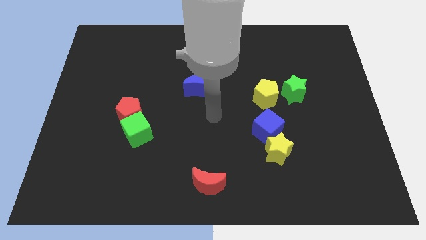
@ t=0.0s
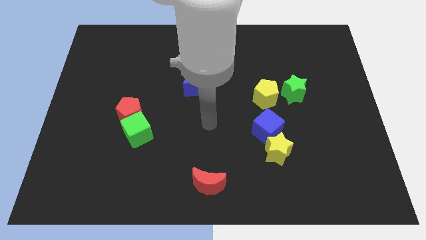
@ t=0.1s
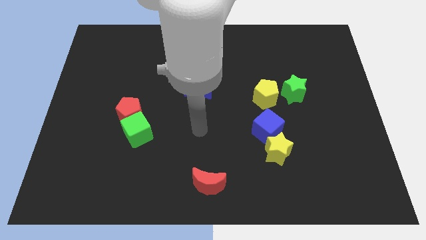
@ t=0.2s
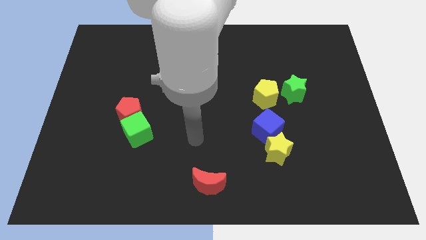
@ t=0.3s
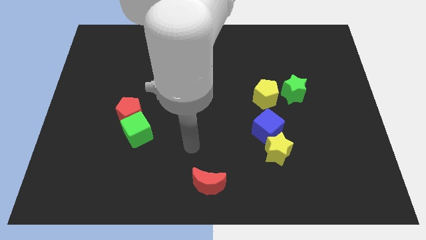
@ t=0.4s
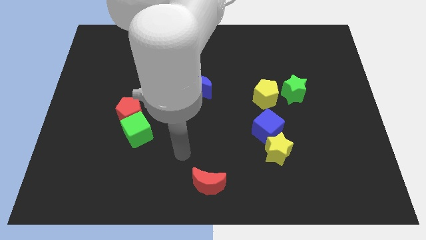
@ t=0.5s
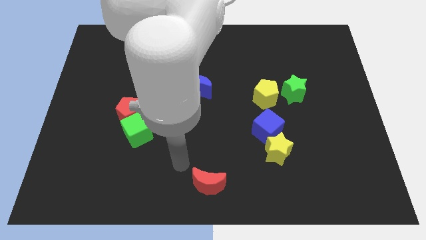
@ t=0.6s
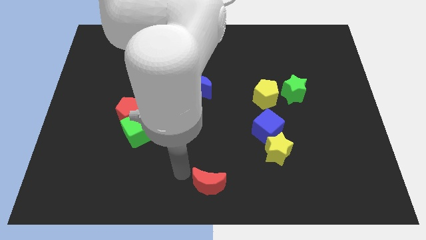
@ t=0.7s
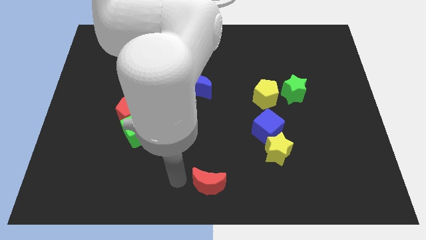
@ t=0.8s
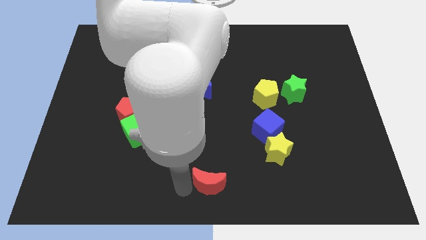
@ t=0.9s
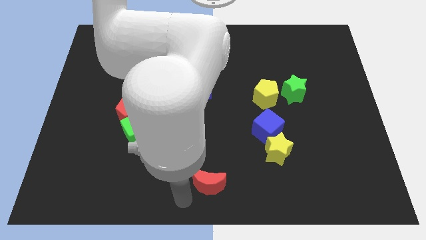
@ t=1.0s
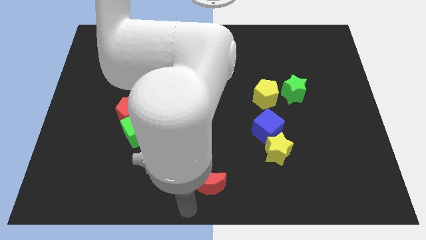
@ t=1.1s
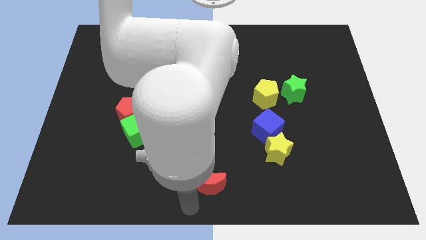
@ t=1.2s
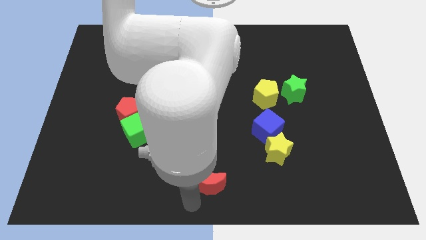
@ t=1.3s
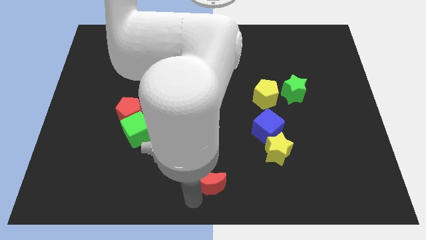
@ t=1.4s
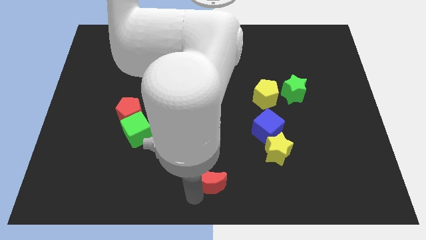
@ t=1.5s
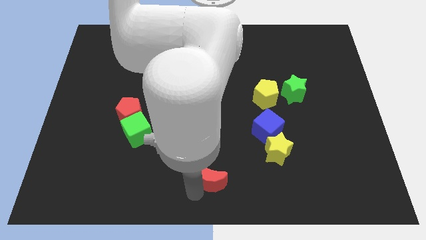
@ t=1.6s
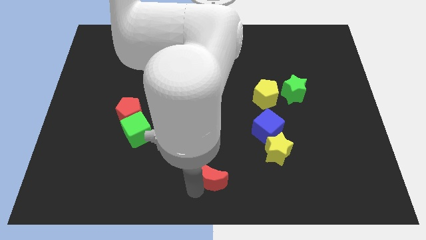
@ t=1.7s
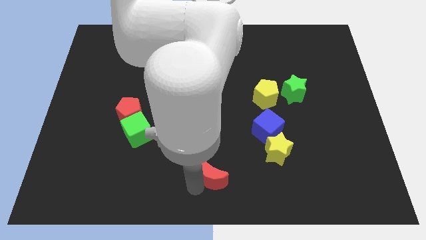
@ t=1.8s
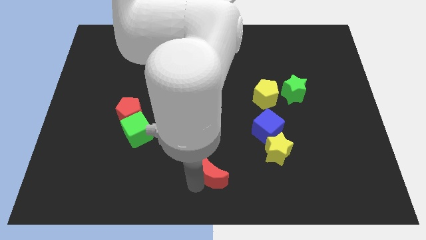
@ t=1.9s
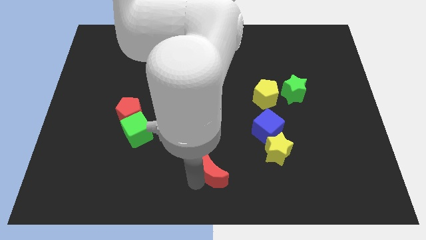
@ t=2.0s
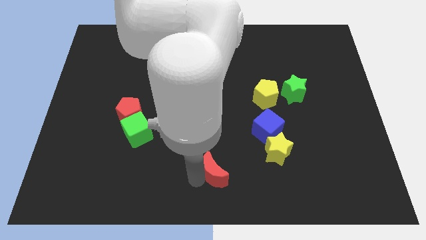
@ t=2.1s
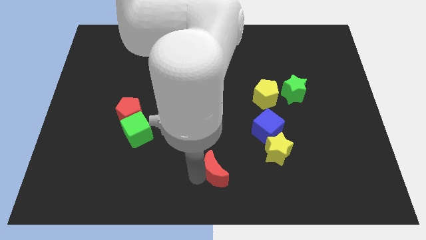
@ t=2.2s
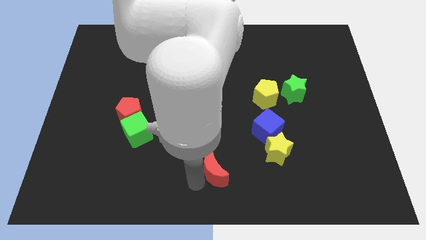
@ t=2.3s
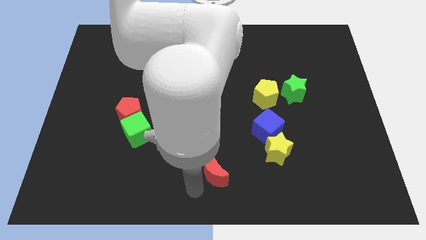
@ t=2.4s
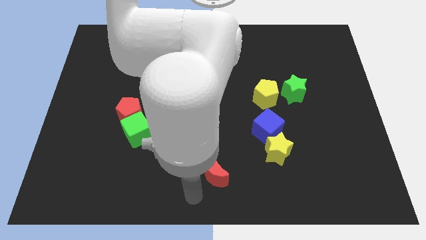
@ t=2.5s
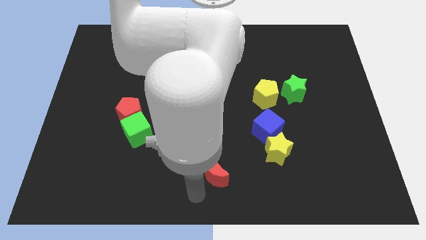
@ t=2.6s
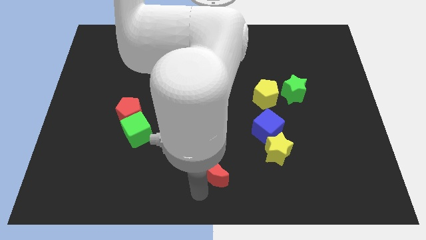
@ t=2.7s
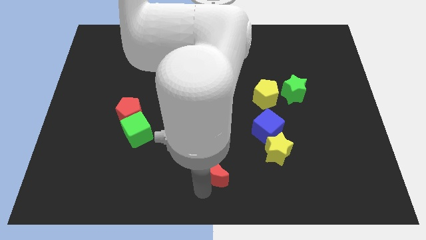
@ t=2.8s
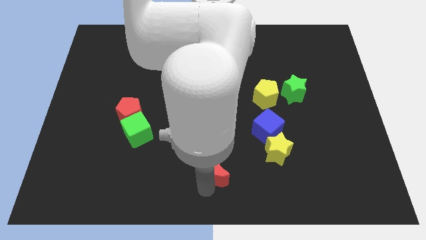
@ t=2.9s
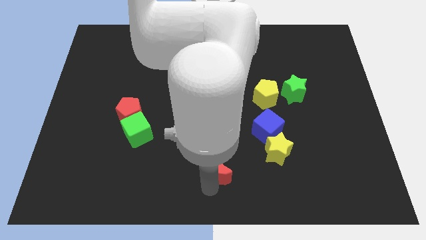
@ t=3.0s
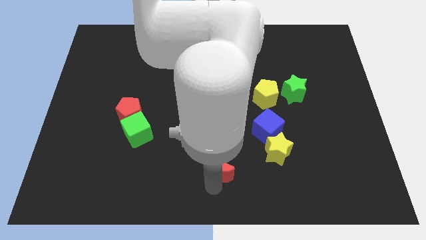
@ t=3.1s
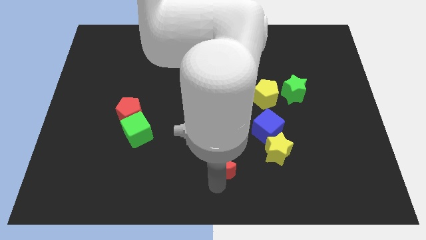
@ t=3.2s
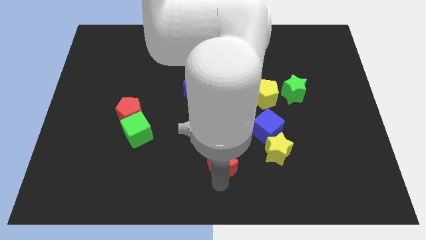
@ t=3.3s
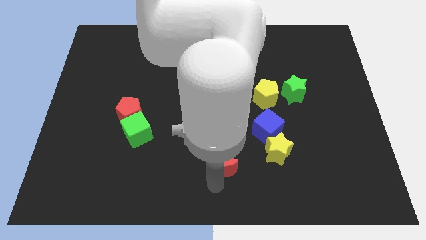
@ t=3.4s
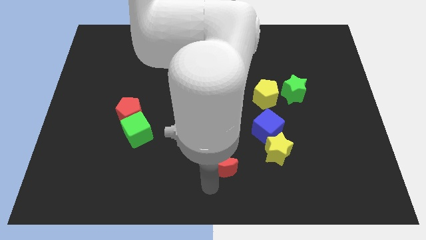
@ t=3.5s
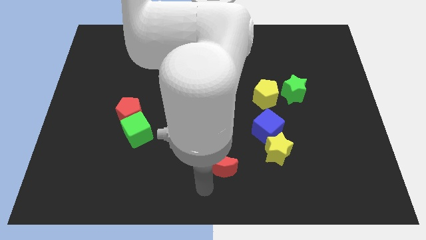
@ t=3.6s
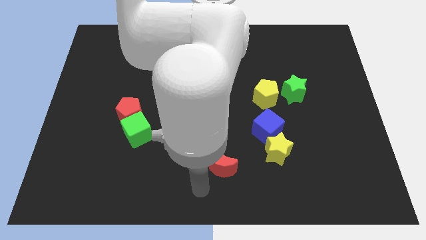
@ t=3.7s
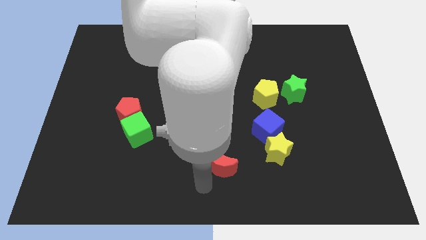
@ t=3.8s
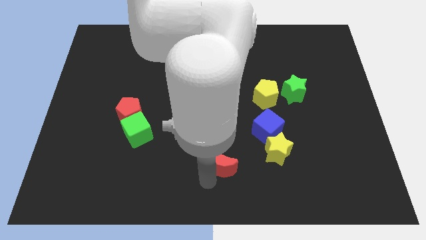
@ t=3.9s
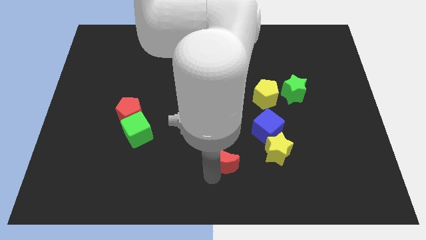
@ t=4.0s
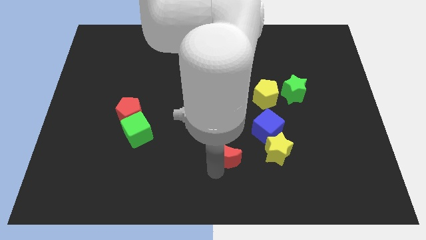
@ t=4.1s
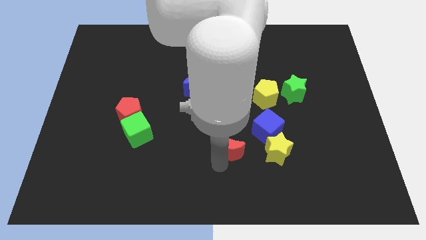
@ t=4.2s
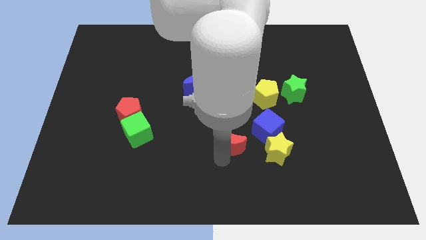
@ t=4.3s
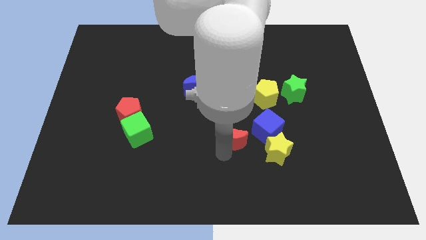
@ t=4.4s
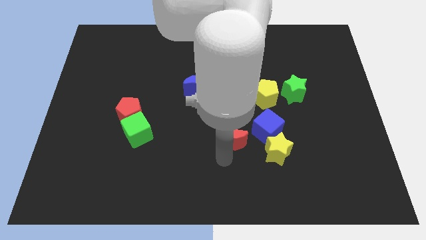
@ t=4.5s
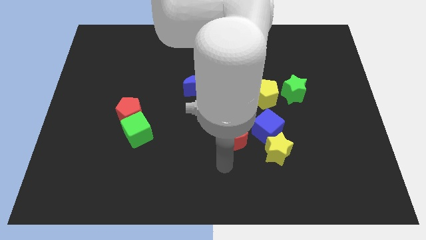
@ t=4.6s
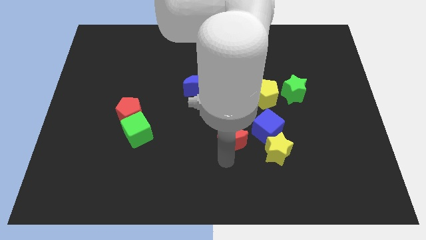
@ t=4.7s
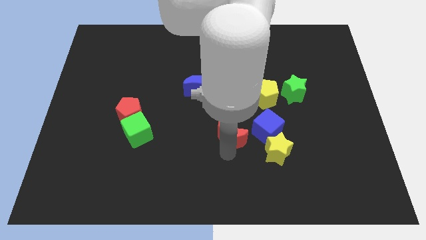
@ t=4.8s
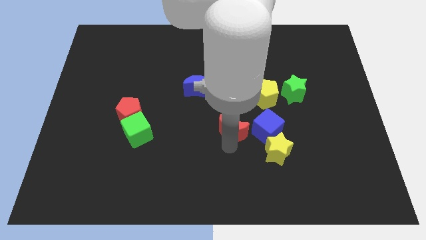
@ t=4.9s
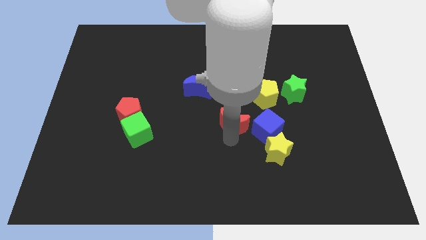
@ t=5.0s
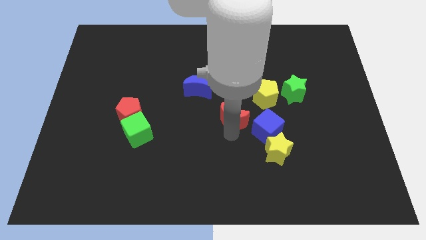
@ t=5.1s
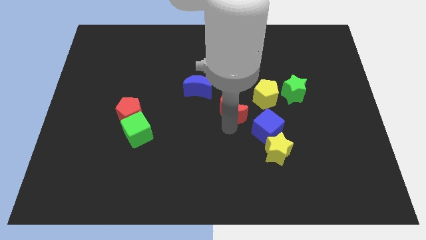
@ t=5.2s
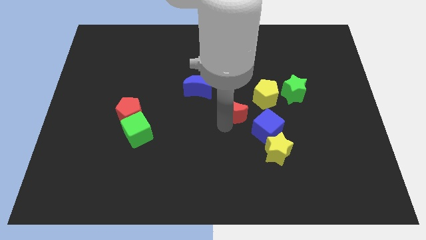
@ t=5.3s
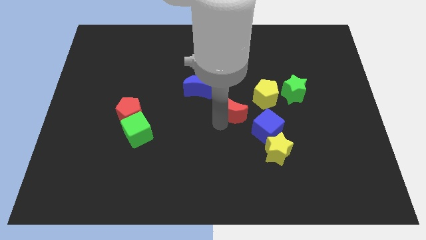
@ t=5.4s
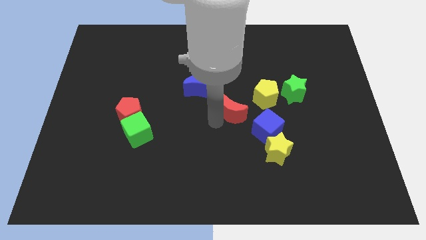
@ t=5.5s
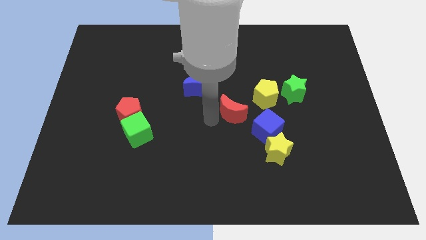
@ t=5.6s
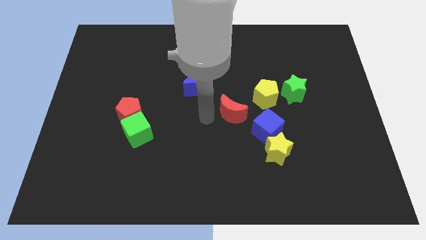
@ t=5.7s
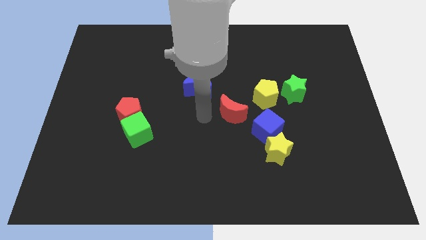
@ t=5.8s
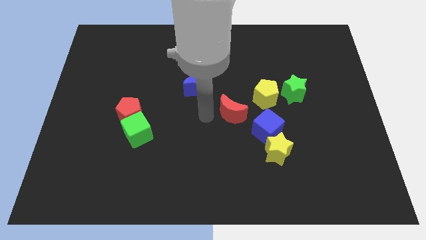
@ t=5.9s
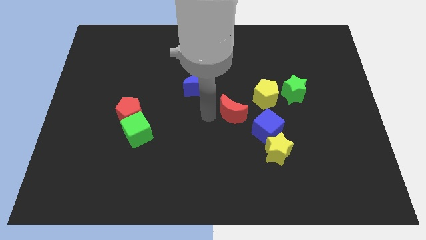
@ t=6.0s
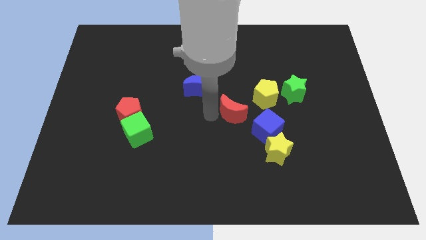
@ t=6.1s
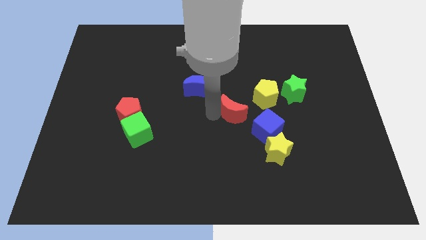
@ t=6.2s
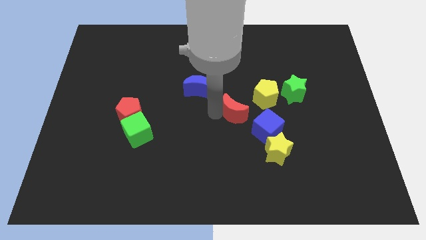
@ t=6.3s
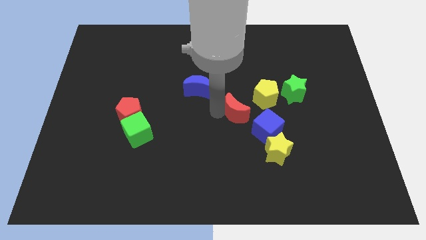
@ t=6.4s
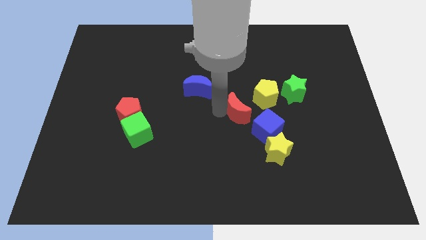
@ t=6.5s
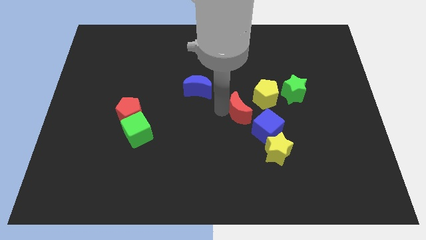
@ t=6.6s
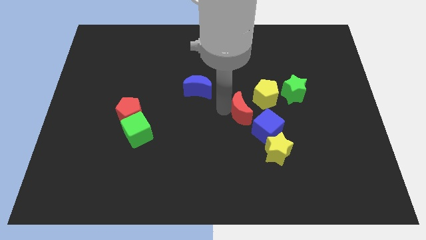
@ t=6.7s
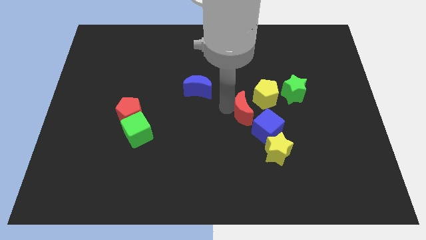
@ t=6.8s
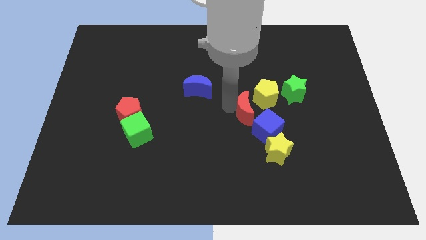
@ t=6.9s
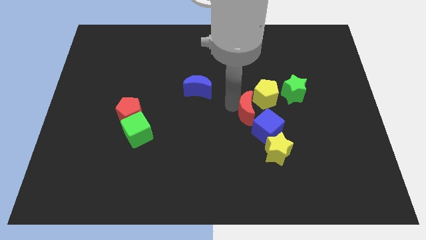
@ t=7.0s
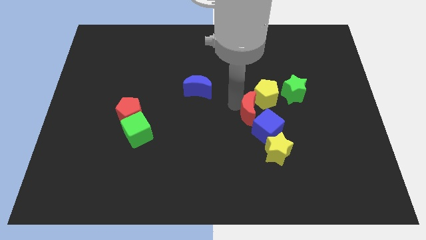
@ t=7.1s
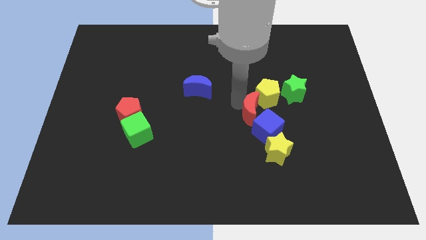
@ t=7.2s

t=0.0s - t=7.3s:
put the red moon above the yellow star

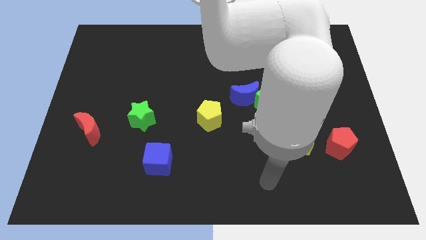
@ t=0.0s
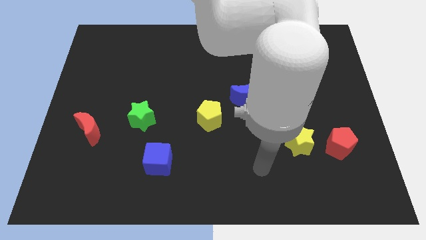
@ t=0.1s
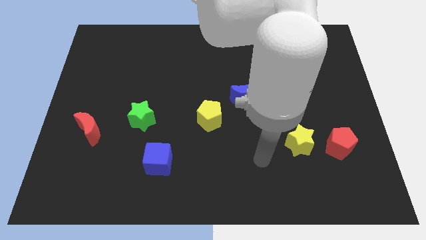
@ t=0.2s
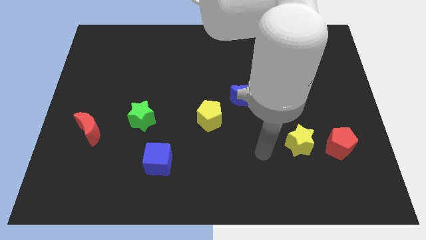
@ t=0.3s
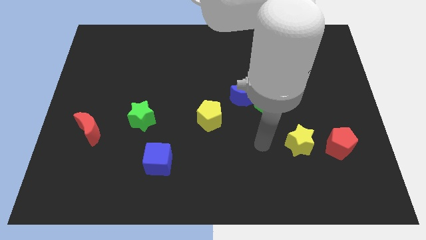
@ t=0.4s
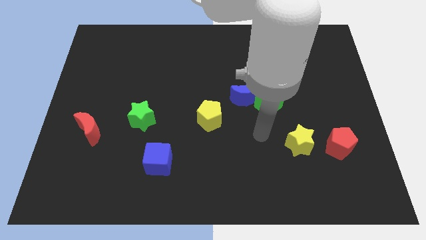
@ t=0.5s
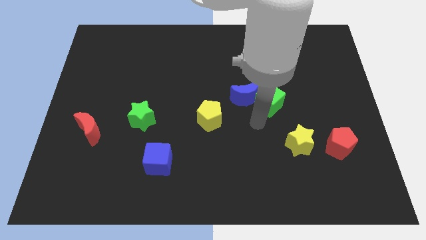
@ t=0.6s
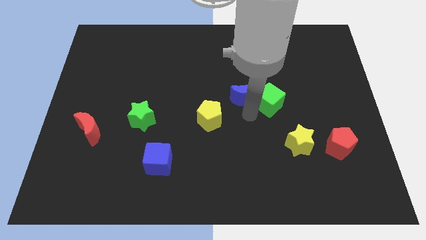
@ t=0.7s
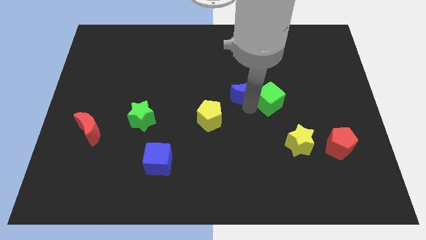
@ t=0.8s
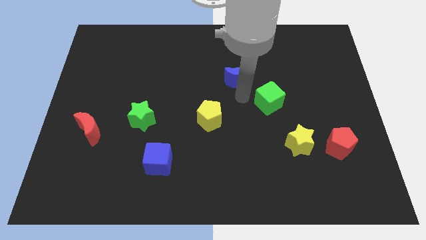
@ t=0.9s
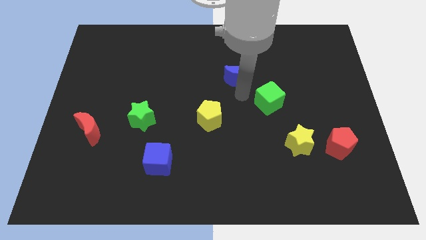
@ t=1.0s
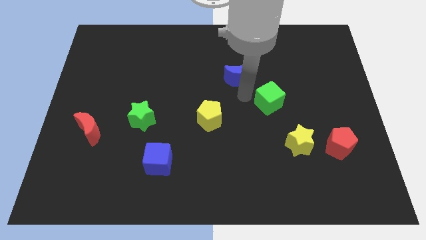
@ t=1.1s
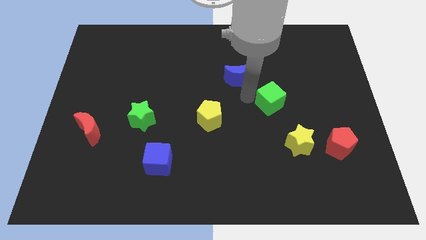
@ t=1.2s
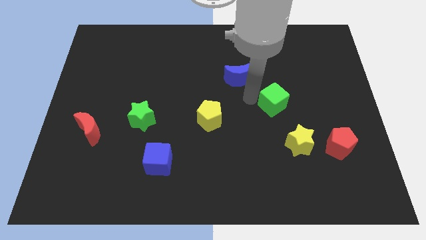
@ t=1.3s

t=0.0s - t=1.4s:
slide the green cube above the yellow star
